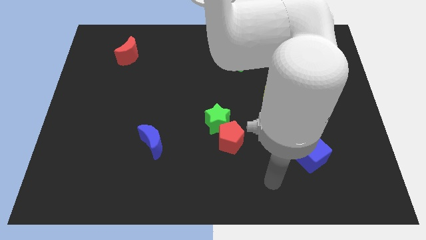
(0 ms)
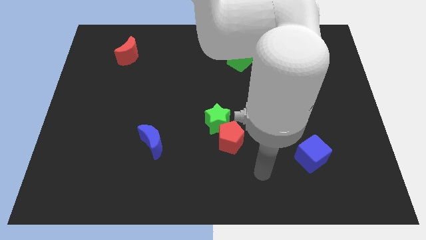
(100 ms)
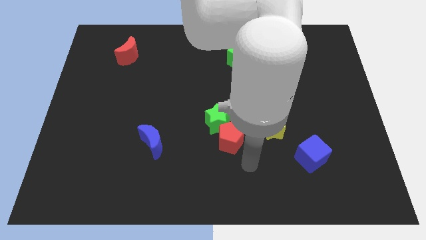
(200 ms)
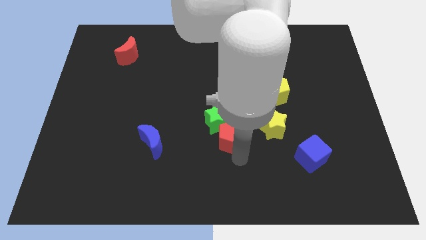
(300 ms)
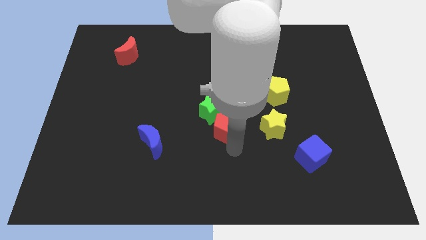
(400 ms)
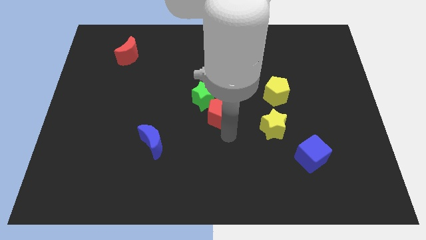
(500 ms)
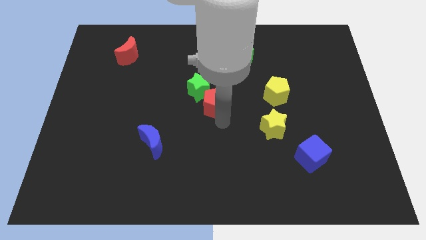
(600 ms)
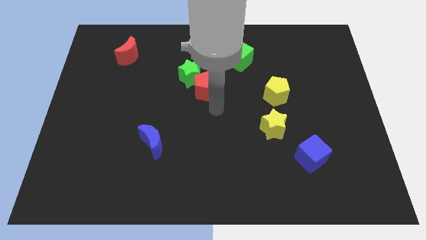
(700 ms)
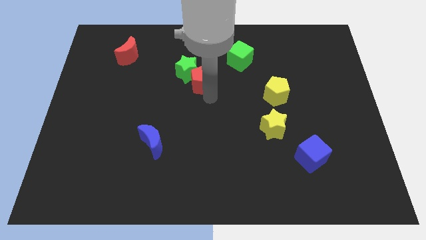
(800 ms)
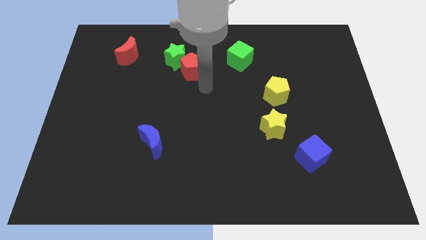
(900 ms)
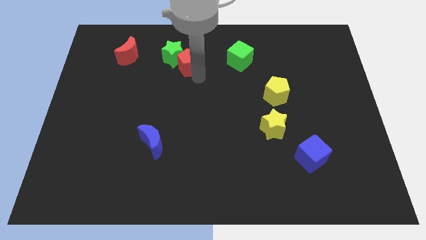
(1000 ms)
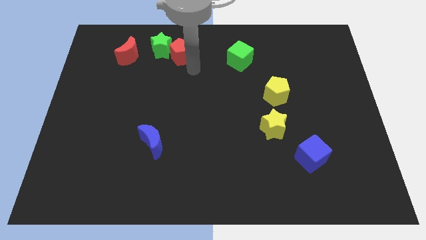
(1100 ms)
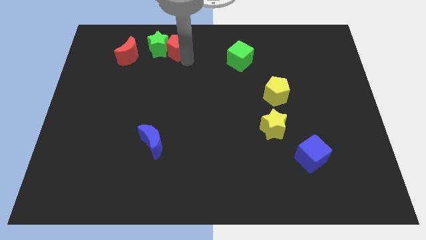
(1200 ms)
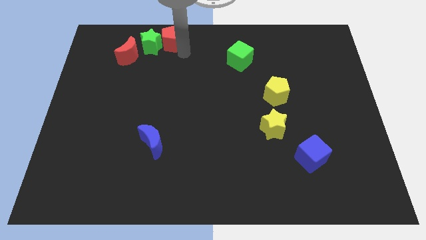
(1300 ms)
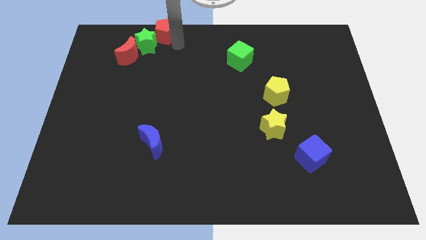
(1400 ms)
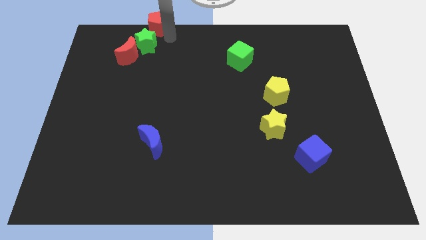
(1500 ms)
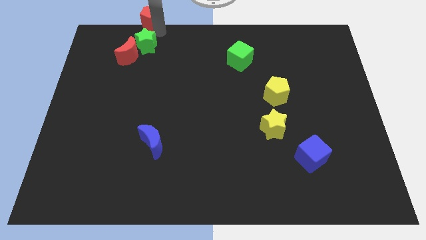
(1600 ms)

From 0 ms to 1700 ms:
move the green star away from the red pentagon

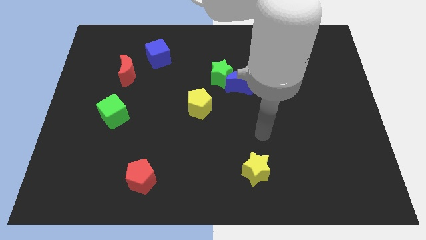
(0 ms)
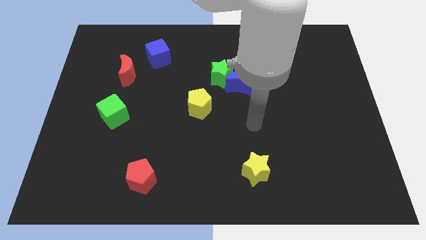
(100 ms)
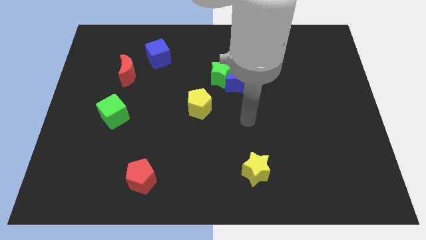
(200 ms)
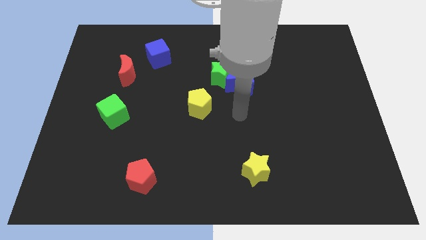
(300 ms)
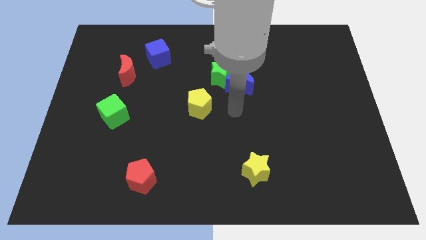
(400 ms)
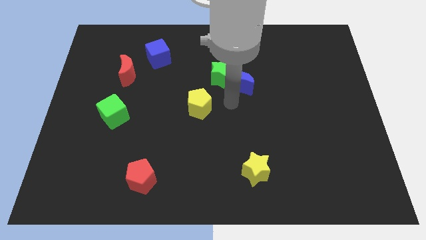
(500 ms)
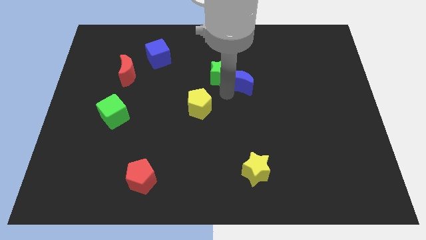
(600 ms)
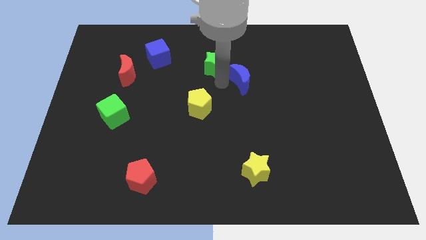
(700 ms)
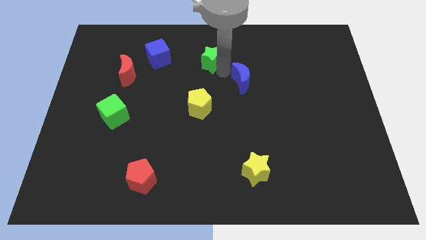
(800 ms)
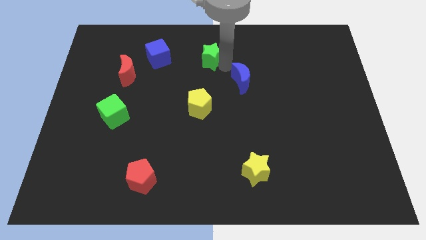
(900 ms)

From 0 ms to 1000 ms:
move the blue moon away from the green star

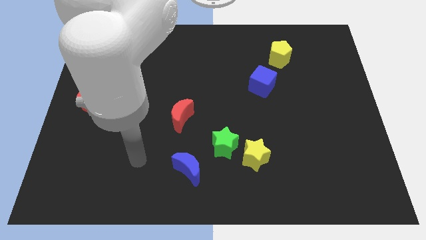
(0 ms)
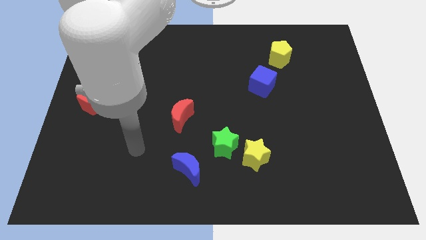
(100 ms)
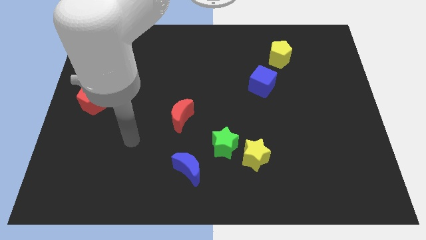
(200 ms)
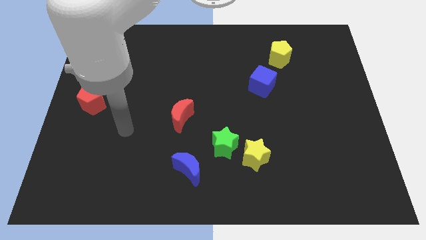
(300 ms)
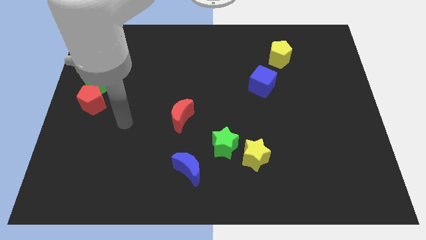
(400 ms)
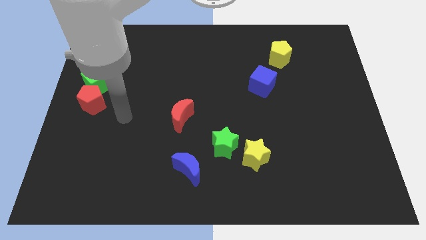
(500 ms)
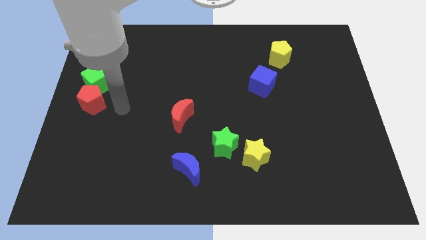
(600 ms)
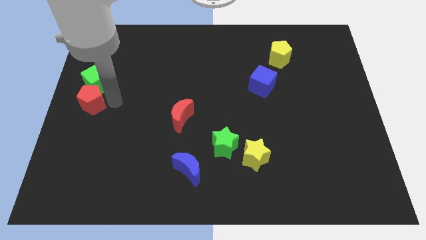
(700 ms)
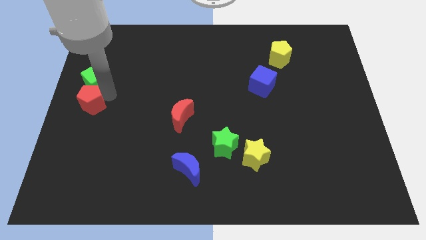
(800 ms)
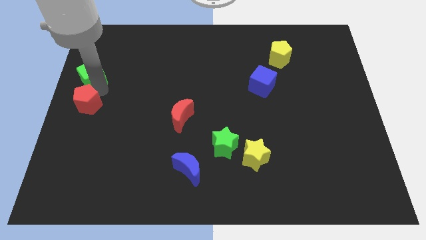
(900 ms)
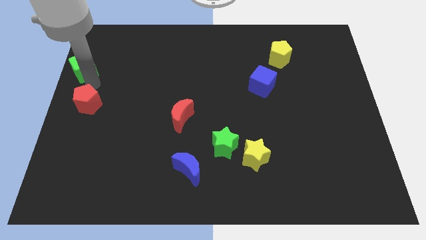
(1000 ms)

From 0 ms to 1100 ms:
separate the red pentagon from the green cube

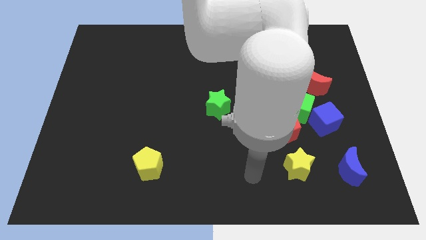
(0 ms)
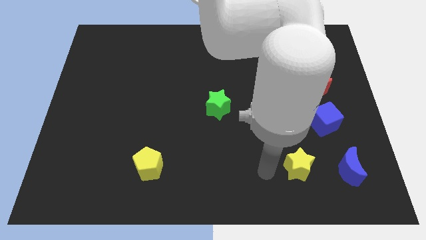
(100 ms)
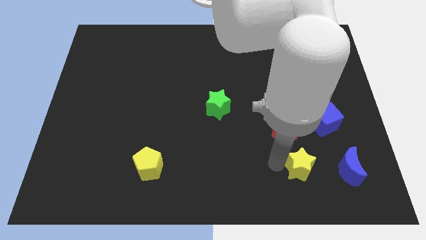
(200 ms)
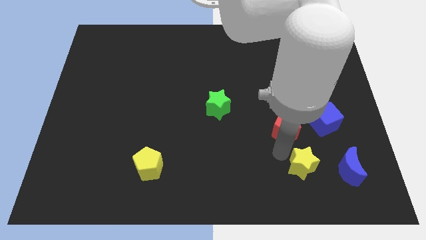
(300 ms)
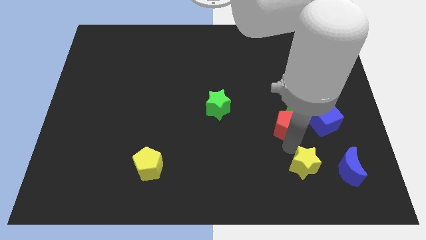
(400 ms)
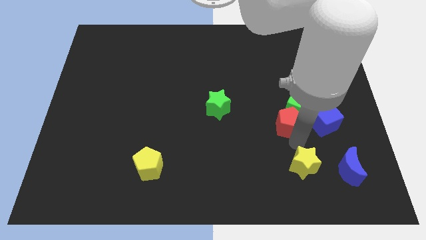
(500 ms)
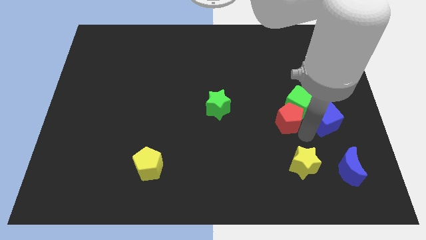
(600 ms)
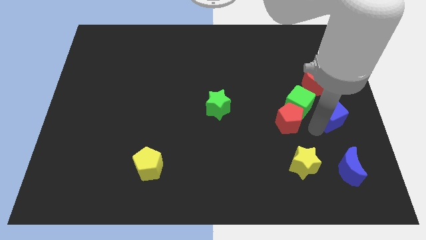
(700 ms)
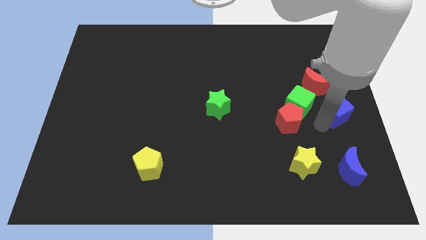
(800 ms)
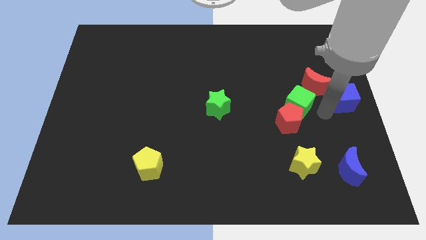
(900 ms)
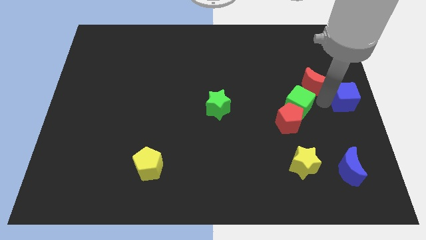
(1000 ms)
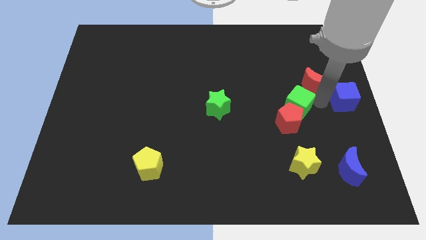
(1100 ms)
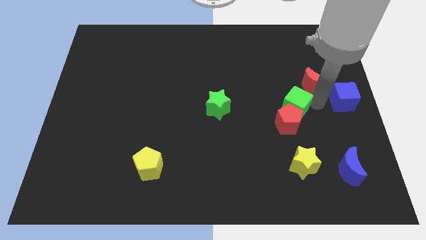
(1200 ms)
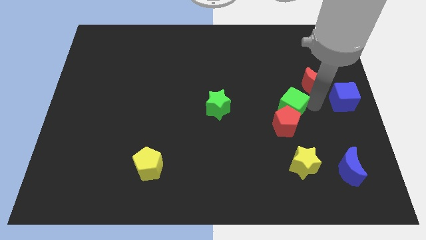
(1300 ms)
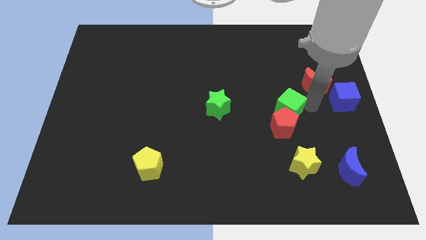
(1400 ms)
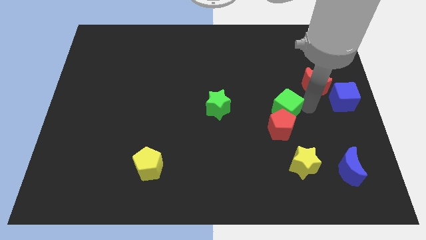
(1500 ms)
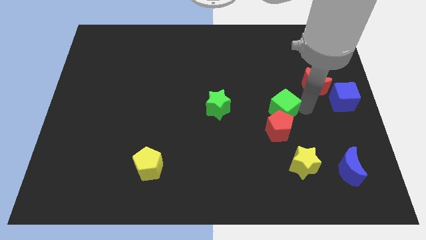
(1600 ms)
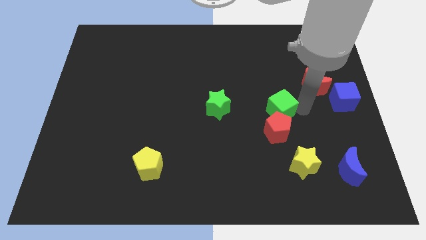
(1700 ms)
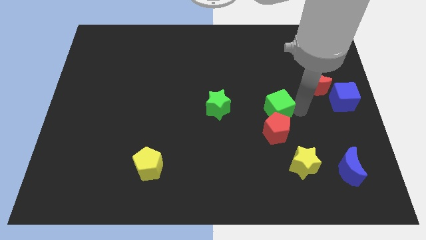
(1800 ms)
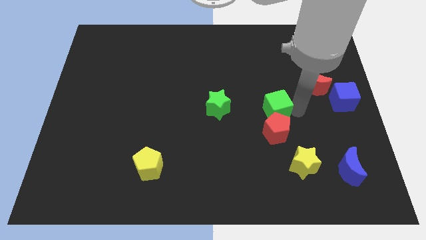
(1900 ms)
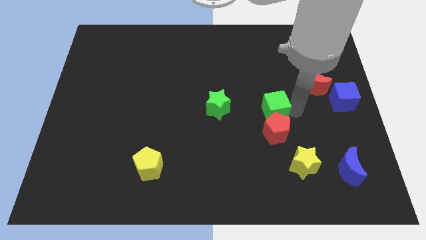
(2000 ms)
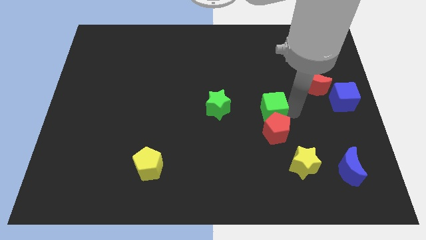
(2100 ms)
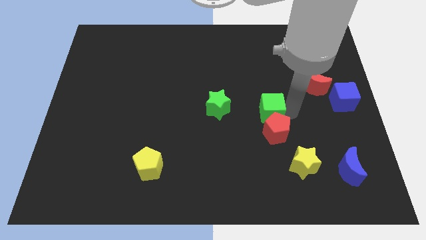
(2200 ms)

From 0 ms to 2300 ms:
move the green cube away from the group

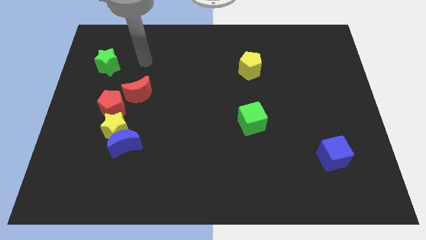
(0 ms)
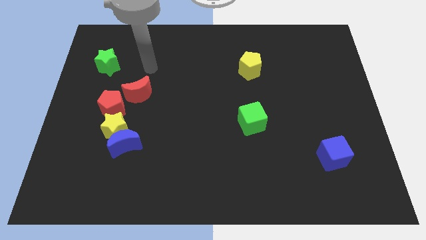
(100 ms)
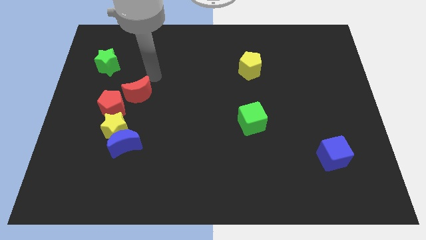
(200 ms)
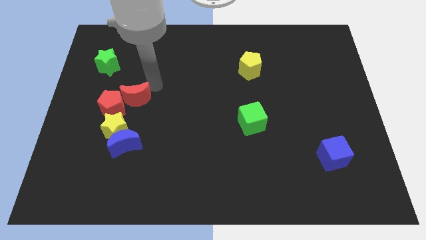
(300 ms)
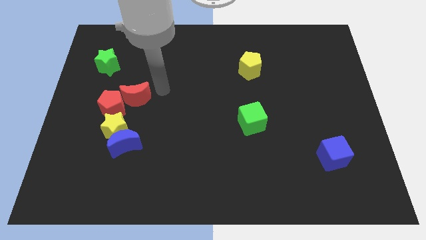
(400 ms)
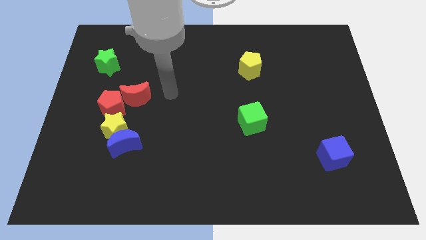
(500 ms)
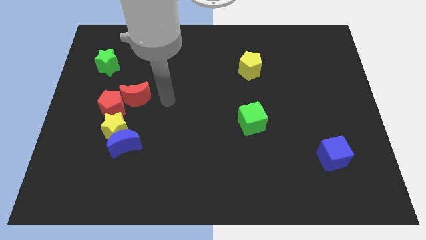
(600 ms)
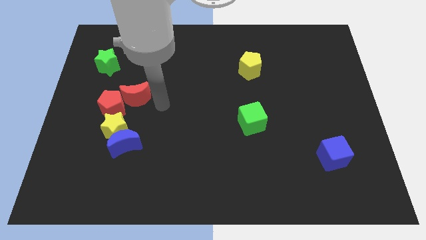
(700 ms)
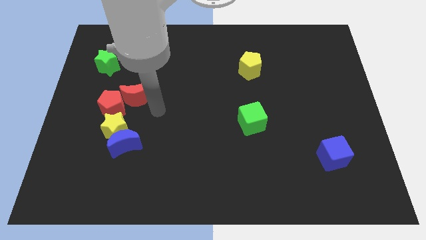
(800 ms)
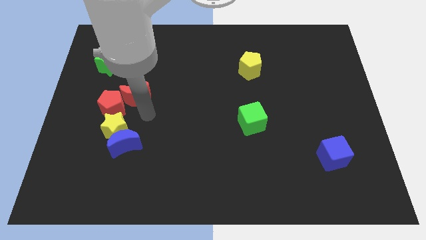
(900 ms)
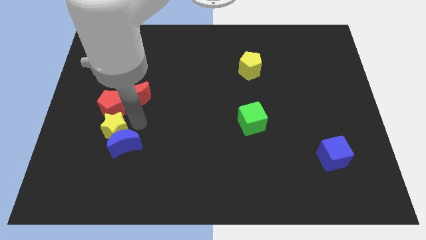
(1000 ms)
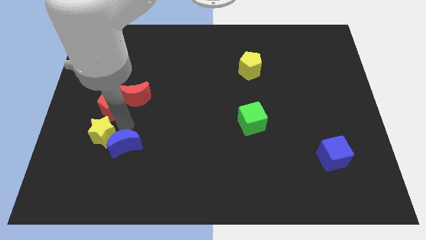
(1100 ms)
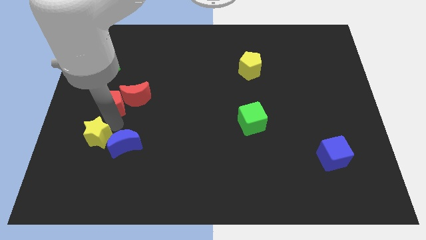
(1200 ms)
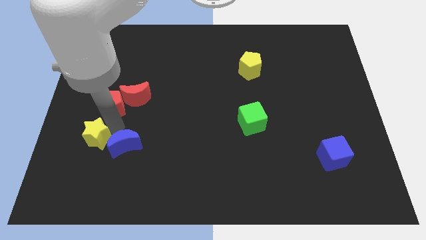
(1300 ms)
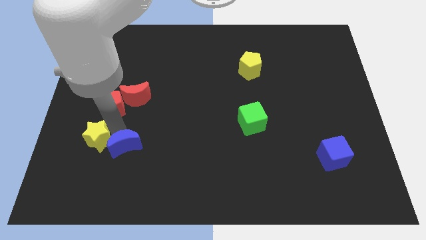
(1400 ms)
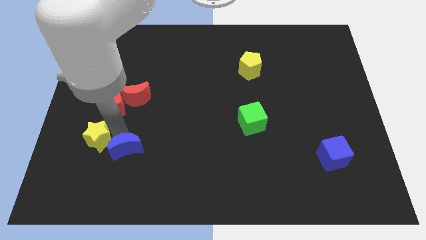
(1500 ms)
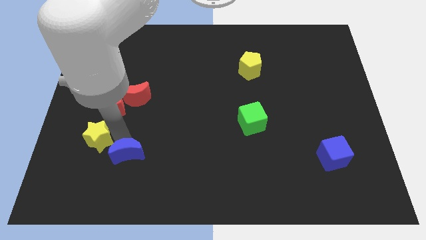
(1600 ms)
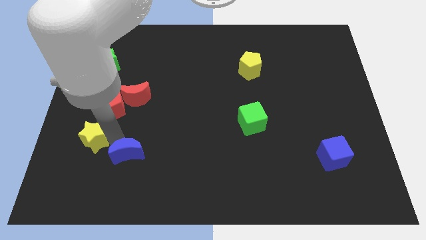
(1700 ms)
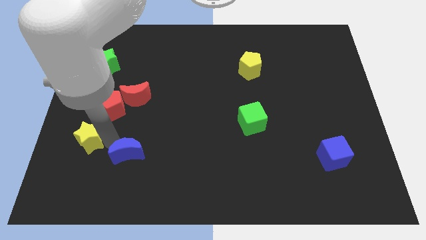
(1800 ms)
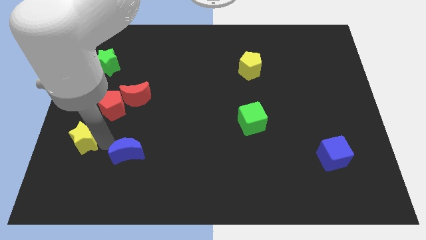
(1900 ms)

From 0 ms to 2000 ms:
separate the blue moon from the yellow star

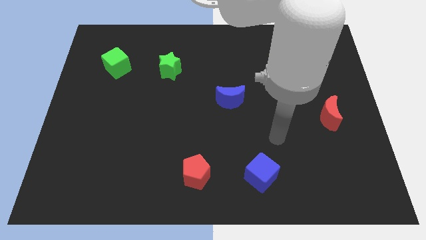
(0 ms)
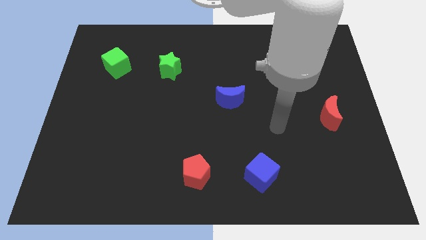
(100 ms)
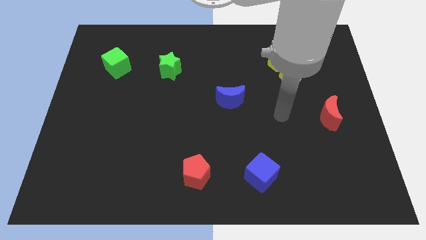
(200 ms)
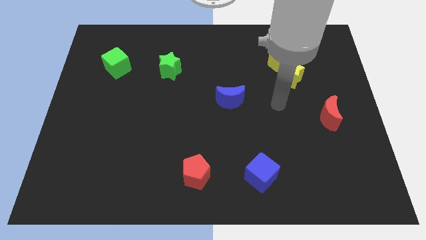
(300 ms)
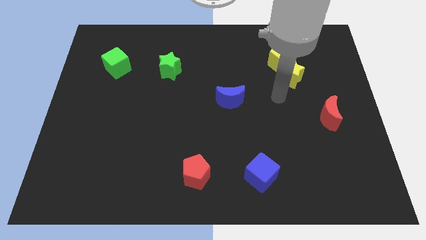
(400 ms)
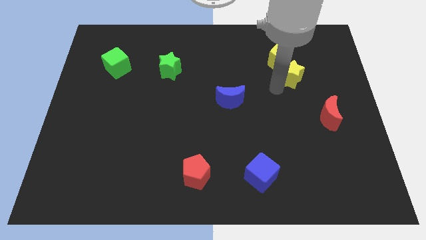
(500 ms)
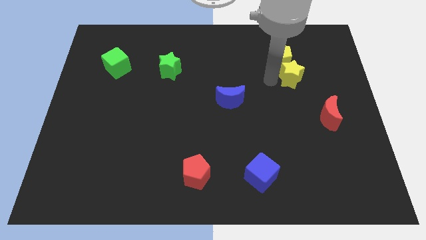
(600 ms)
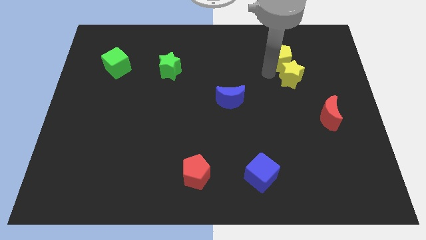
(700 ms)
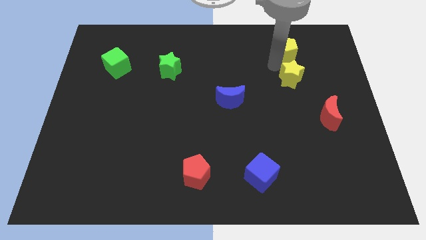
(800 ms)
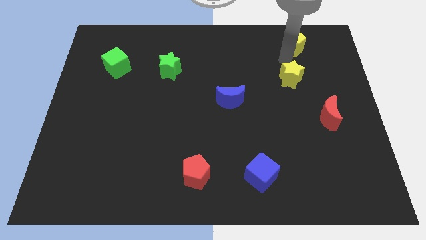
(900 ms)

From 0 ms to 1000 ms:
move the yellow star away from the yellow pentagon
